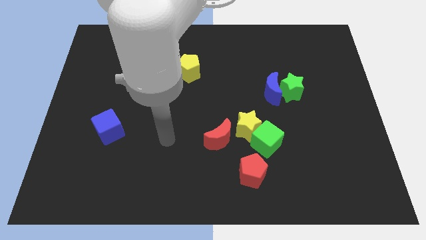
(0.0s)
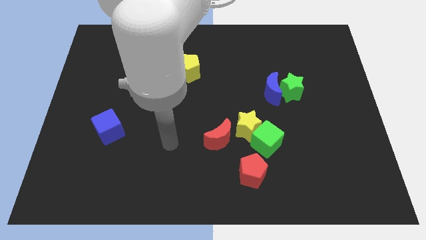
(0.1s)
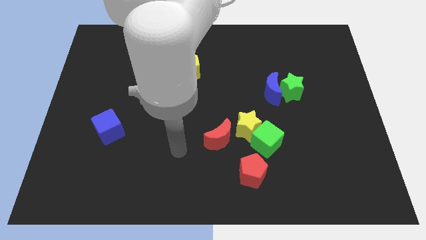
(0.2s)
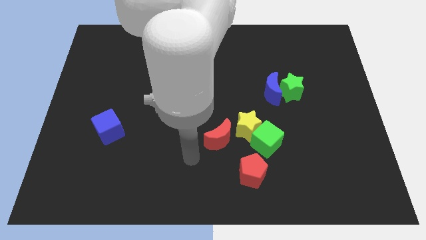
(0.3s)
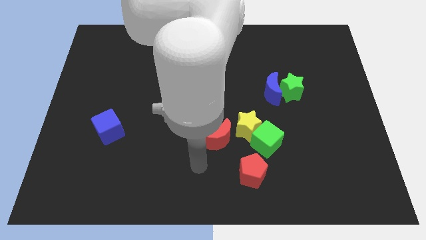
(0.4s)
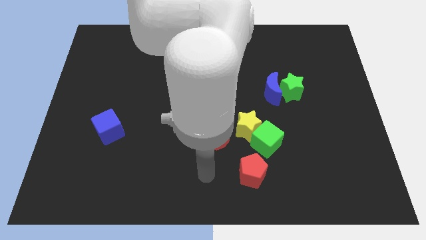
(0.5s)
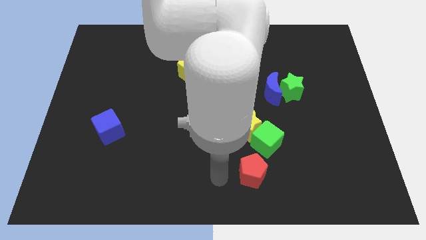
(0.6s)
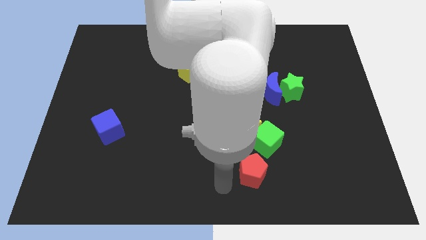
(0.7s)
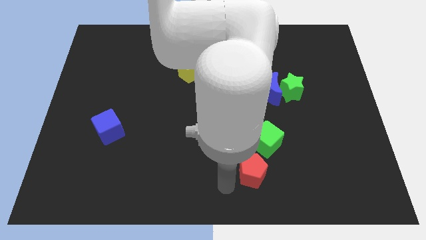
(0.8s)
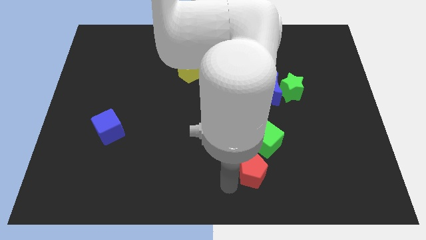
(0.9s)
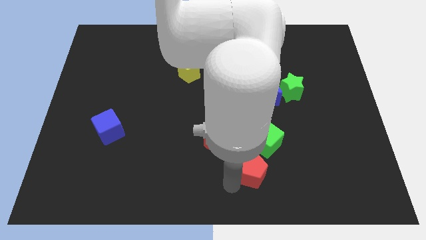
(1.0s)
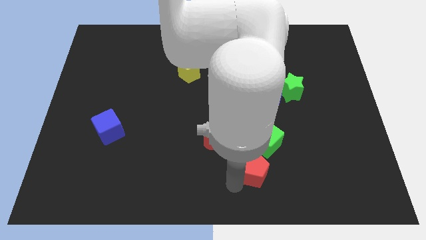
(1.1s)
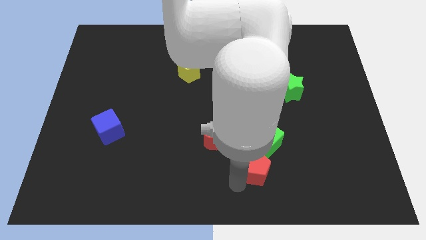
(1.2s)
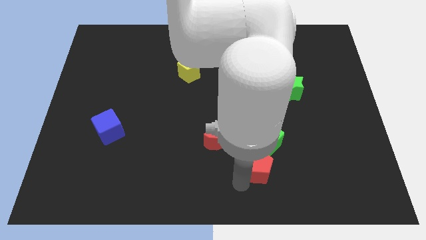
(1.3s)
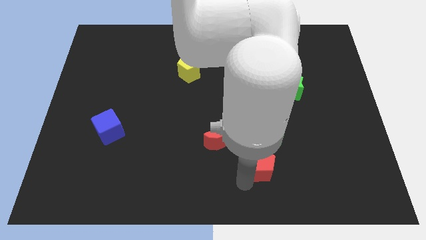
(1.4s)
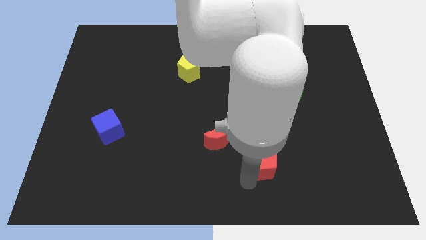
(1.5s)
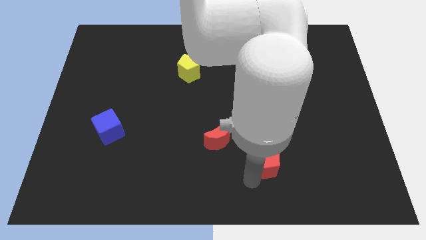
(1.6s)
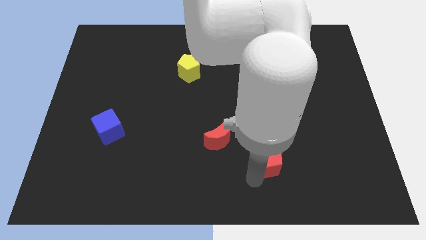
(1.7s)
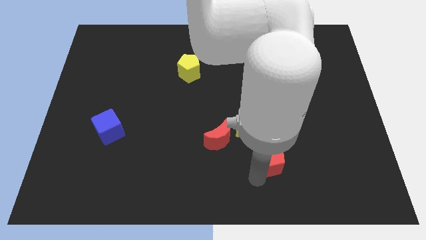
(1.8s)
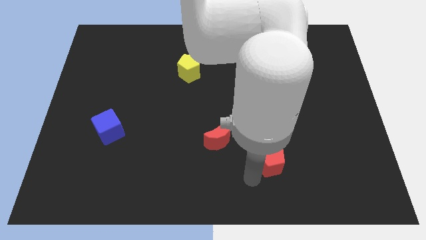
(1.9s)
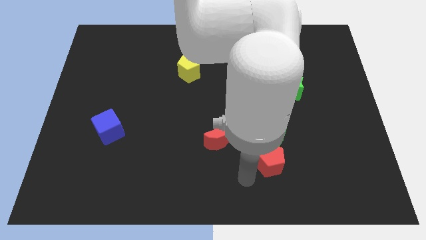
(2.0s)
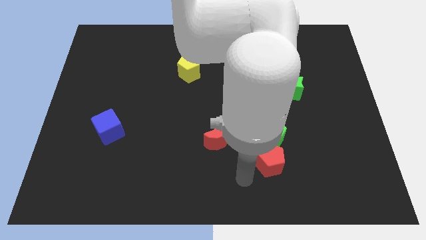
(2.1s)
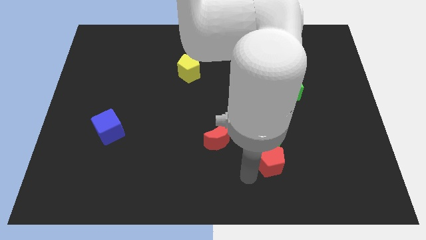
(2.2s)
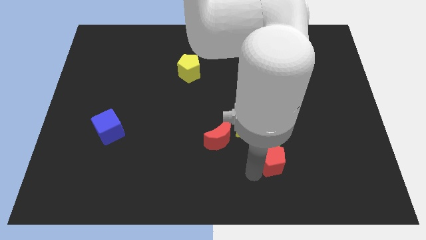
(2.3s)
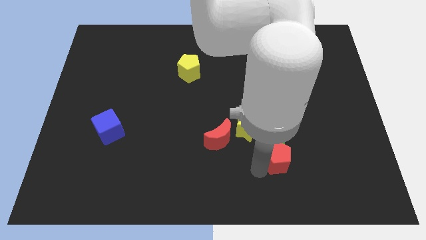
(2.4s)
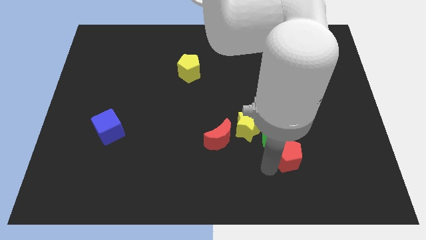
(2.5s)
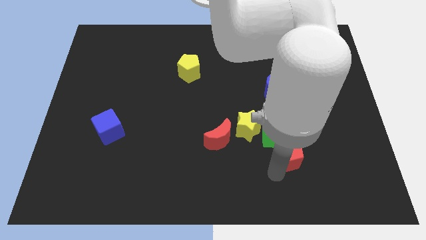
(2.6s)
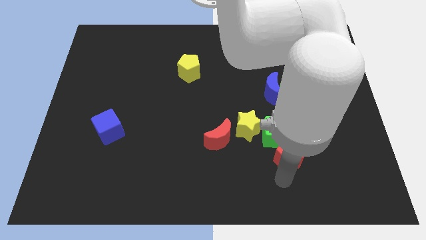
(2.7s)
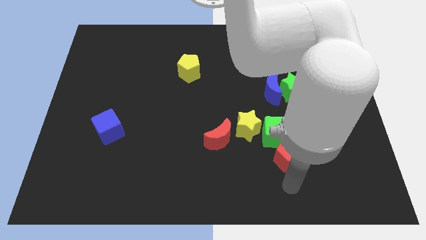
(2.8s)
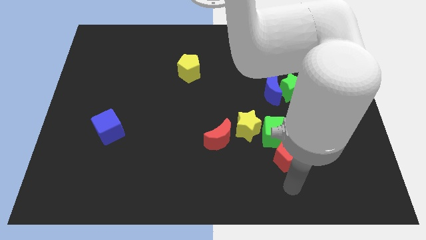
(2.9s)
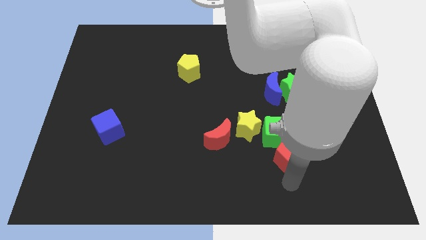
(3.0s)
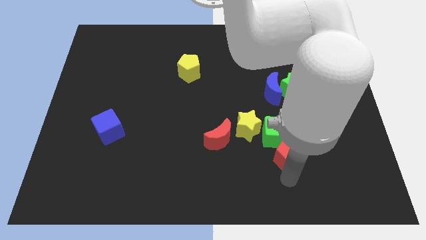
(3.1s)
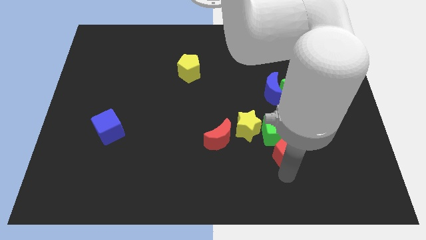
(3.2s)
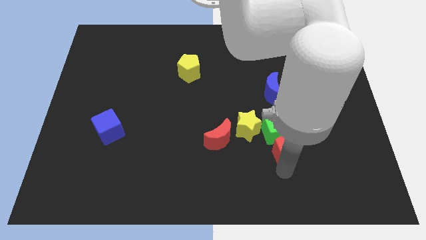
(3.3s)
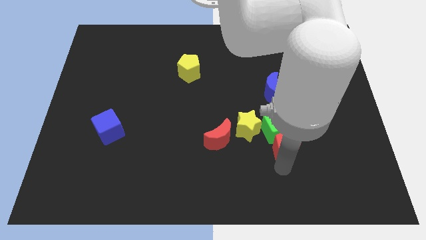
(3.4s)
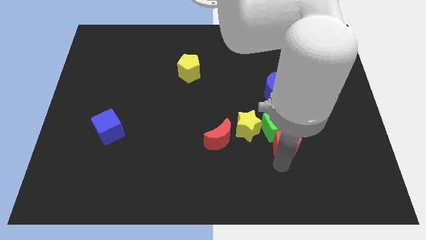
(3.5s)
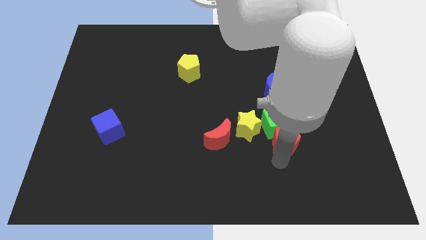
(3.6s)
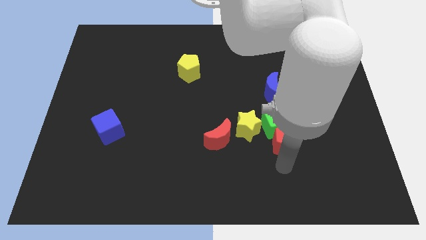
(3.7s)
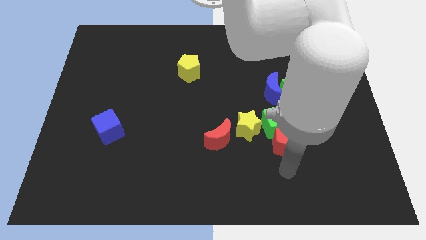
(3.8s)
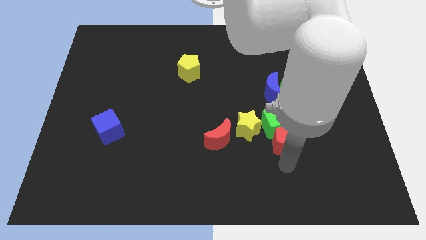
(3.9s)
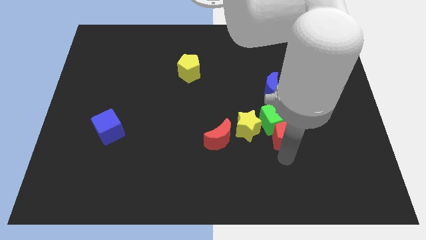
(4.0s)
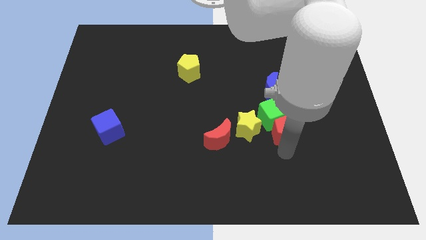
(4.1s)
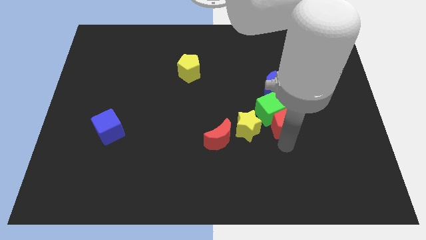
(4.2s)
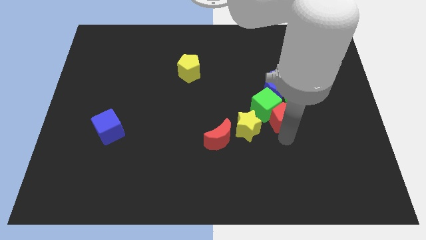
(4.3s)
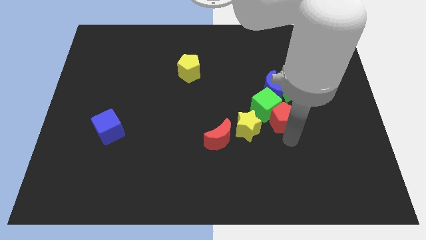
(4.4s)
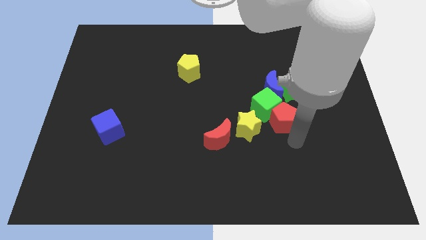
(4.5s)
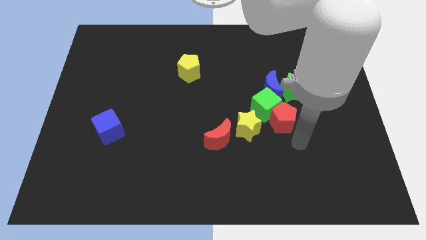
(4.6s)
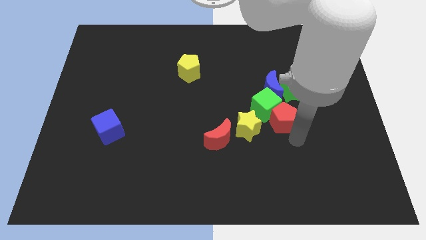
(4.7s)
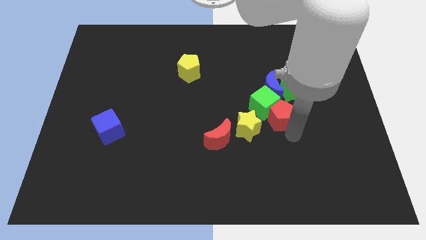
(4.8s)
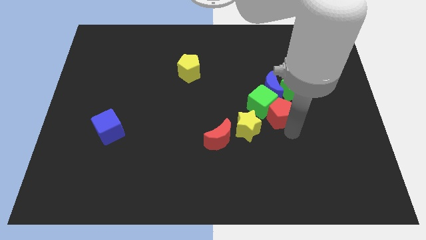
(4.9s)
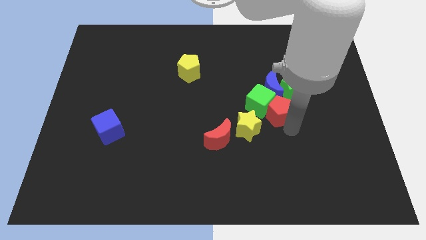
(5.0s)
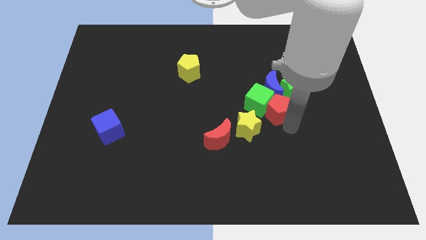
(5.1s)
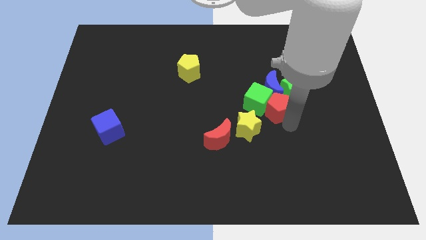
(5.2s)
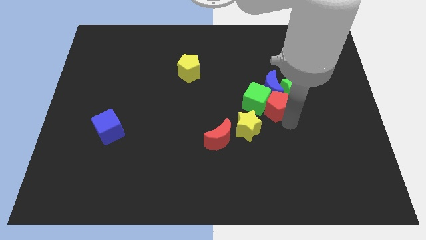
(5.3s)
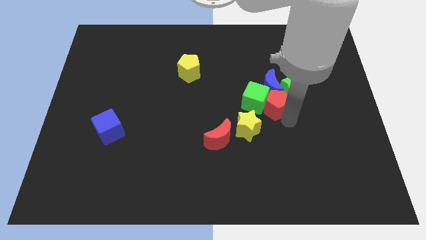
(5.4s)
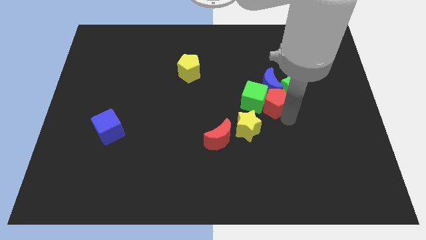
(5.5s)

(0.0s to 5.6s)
put the red pentagon to the left side of the green star

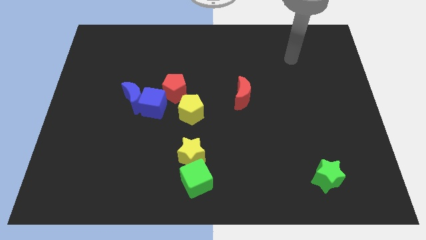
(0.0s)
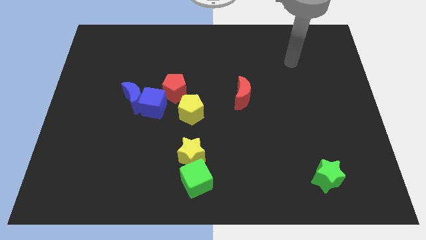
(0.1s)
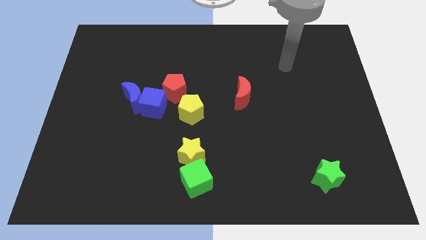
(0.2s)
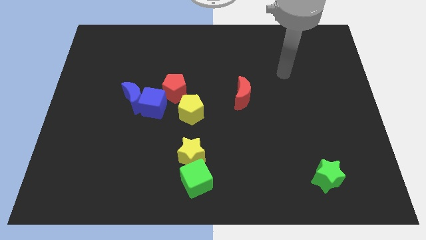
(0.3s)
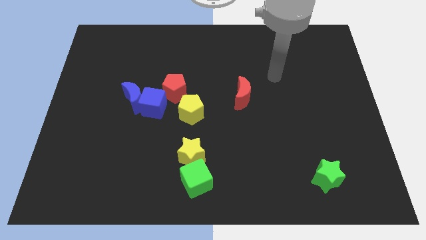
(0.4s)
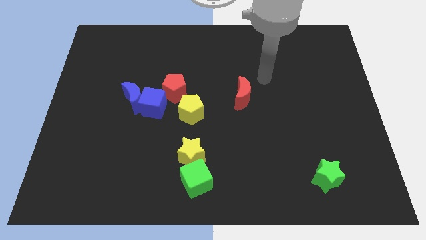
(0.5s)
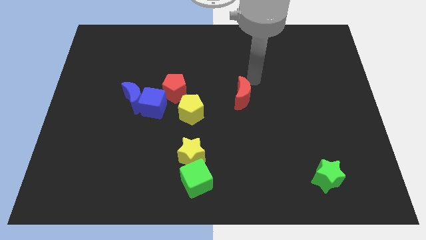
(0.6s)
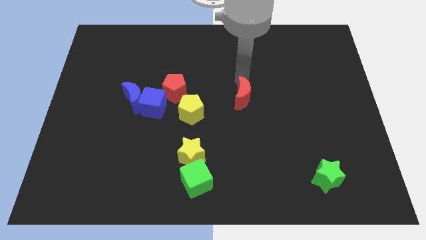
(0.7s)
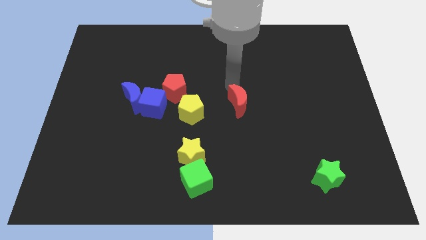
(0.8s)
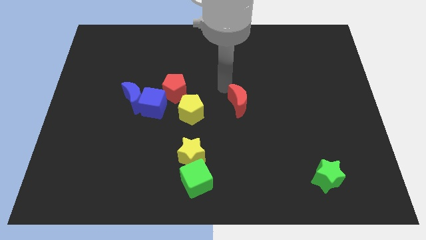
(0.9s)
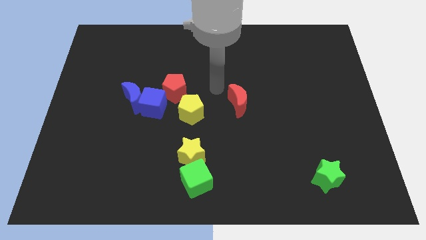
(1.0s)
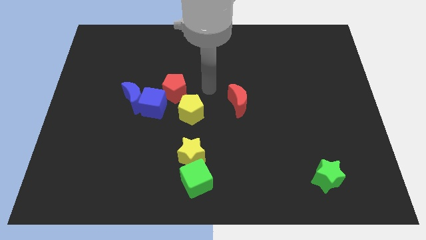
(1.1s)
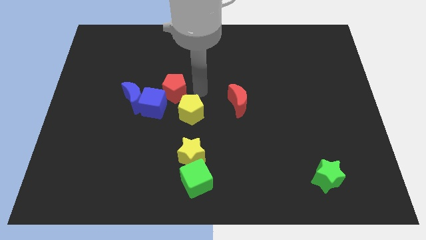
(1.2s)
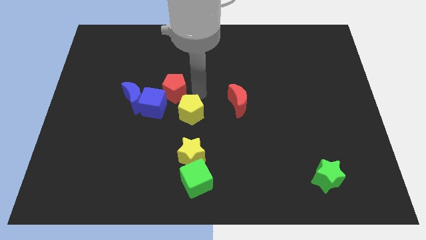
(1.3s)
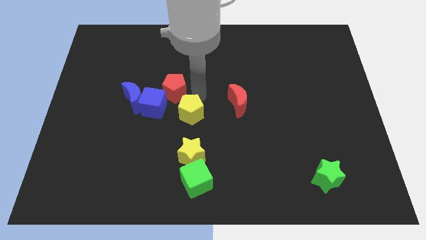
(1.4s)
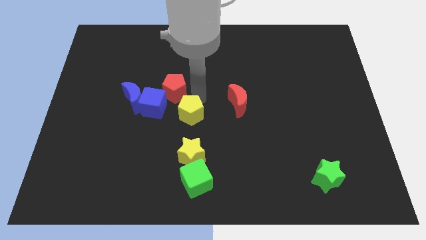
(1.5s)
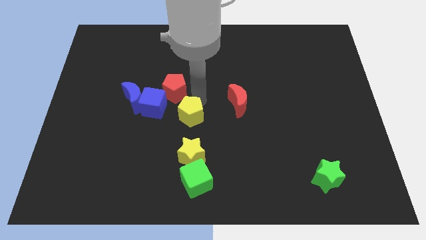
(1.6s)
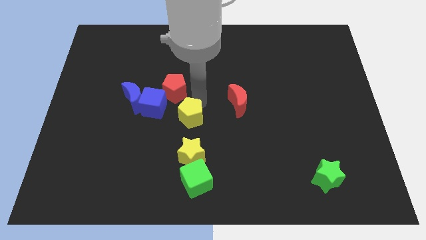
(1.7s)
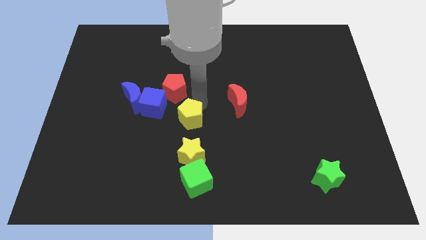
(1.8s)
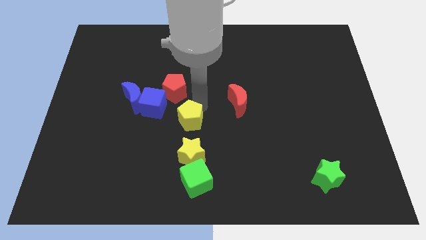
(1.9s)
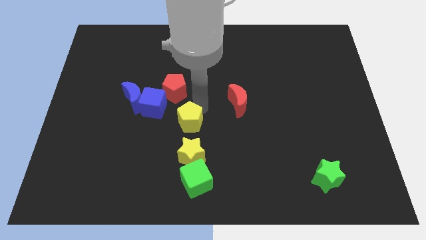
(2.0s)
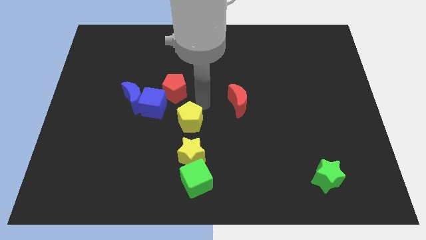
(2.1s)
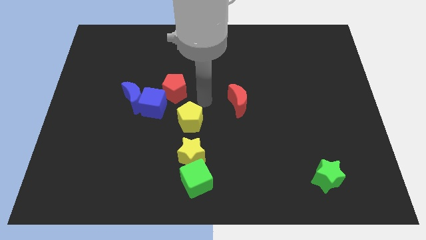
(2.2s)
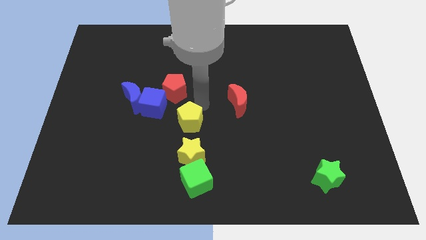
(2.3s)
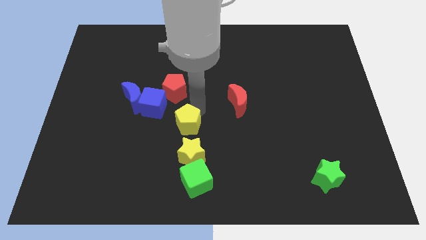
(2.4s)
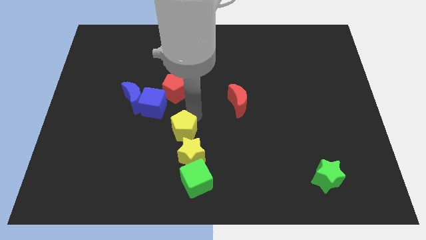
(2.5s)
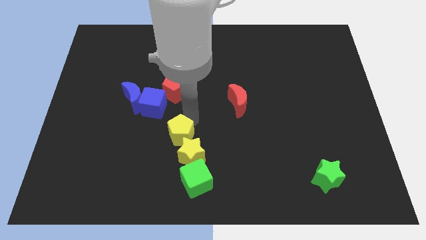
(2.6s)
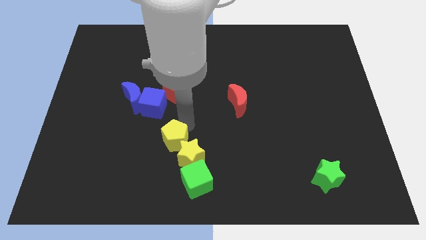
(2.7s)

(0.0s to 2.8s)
put the yellow pentagon to the top left side of the green cube
